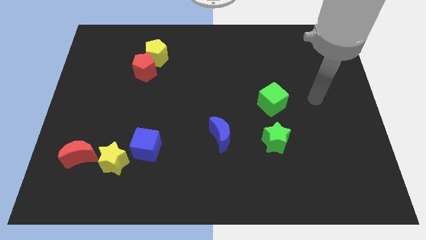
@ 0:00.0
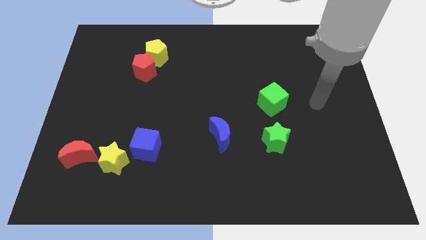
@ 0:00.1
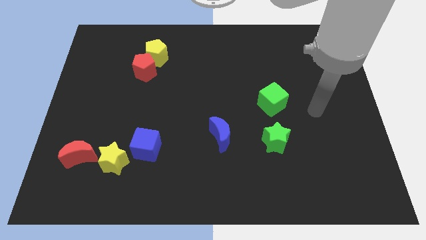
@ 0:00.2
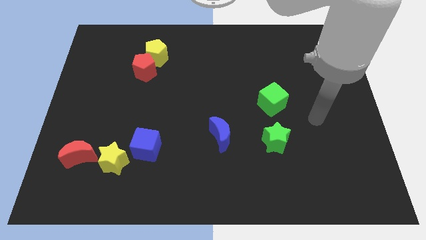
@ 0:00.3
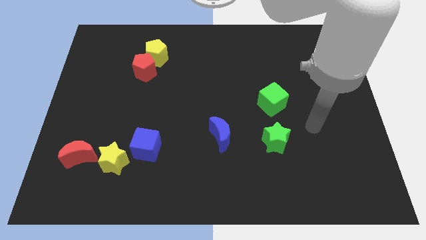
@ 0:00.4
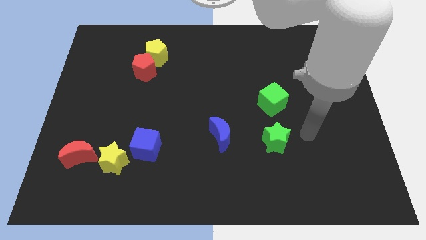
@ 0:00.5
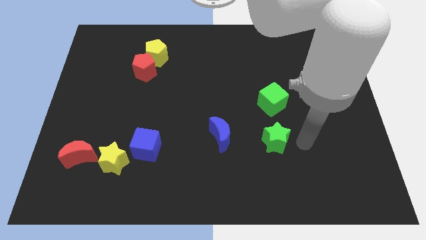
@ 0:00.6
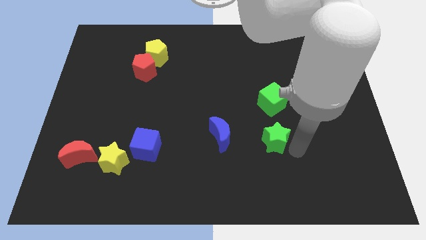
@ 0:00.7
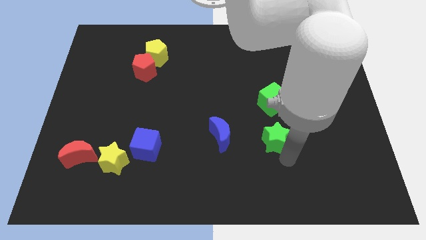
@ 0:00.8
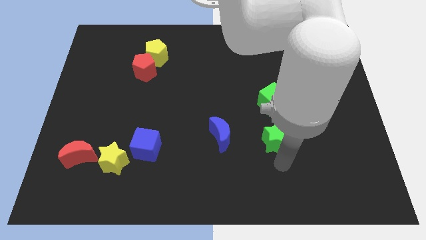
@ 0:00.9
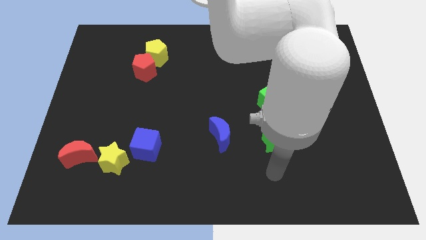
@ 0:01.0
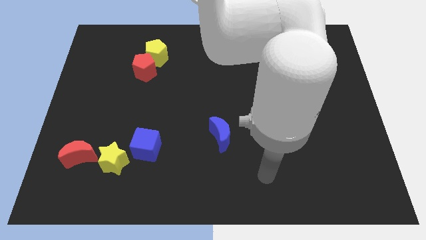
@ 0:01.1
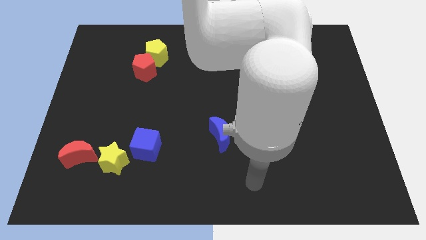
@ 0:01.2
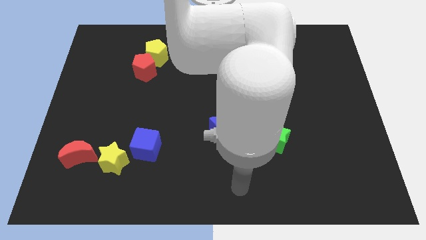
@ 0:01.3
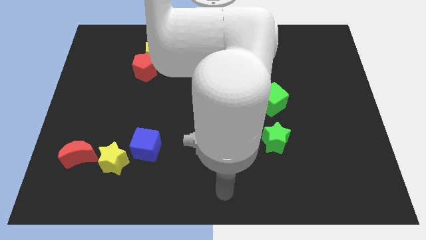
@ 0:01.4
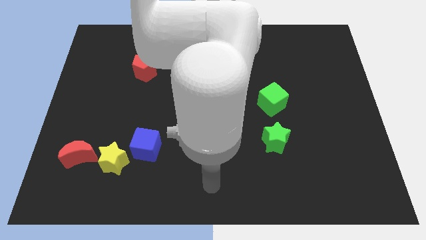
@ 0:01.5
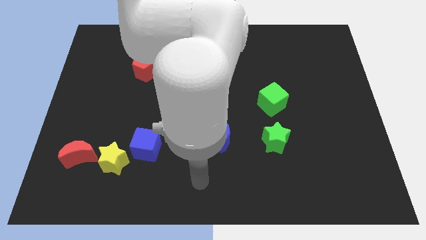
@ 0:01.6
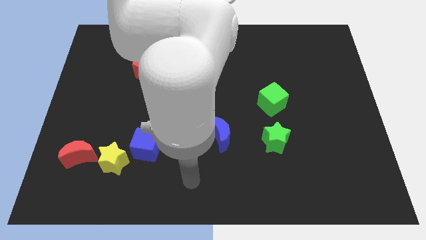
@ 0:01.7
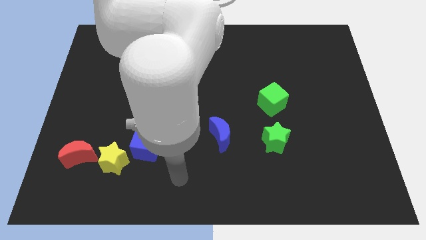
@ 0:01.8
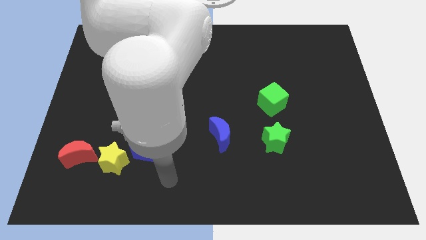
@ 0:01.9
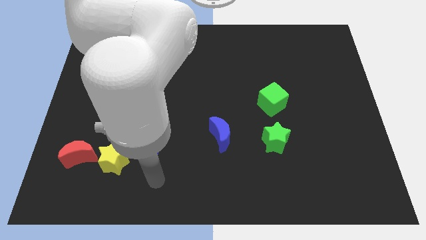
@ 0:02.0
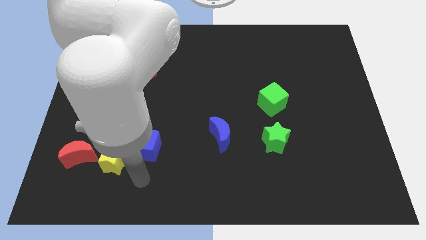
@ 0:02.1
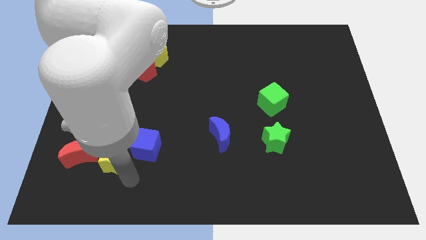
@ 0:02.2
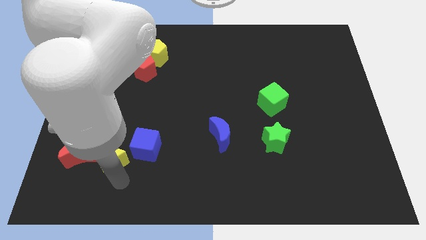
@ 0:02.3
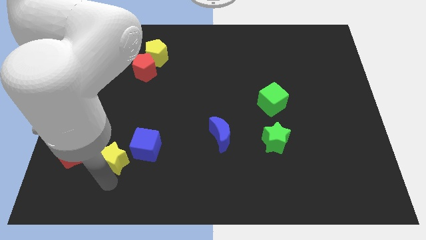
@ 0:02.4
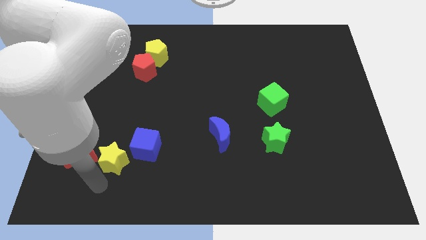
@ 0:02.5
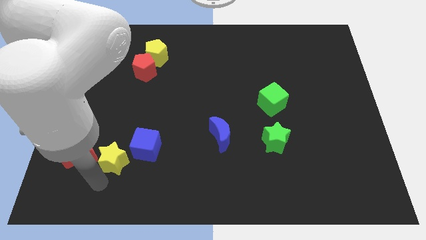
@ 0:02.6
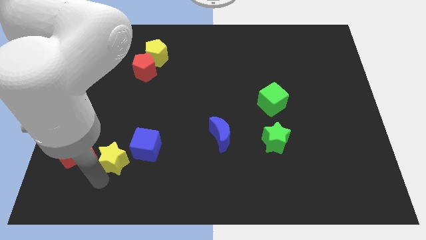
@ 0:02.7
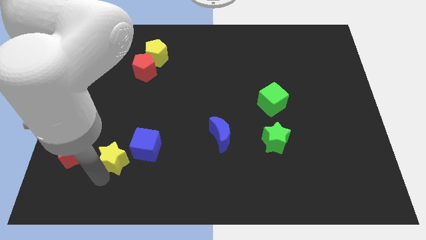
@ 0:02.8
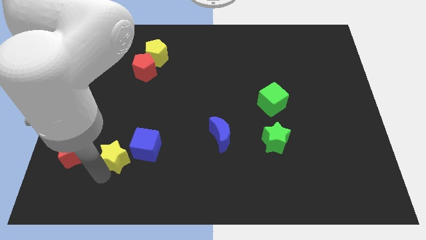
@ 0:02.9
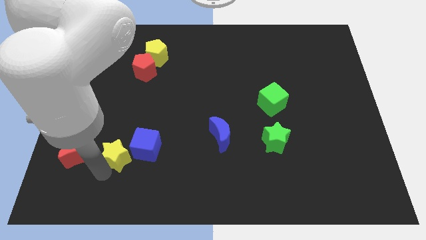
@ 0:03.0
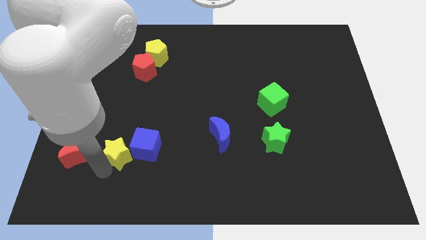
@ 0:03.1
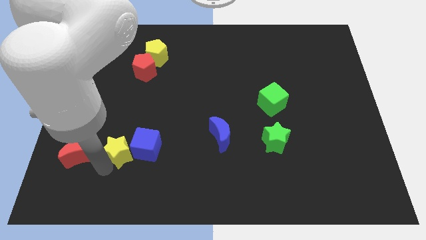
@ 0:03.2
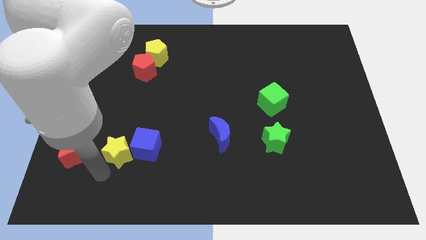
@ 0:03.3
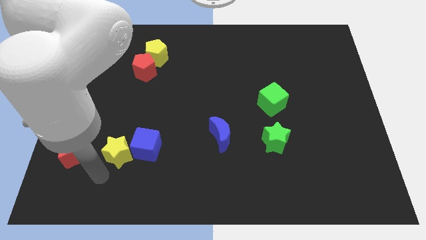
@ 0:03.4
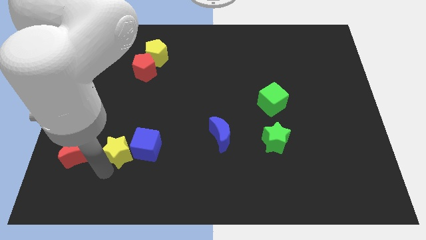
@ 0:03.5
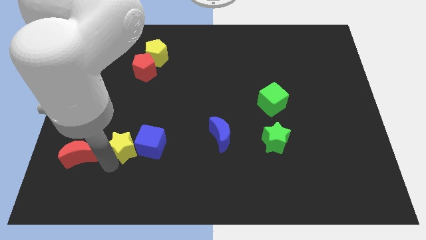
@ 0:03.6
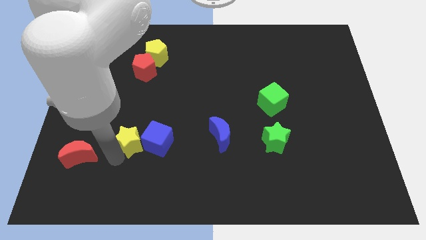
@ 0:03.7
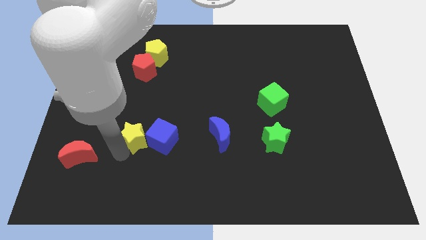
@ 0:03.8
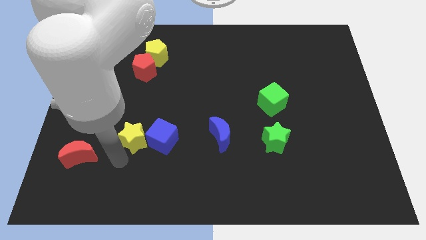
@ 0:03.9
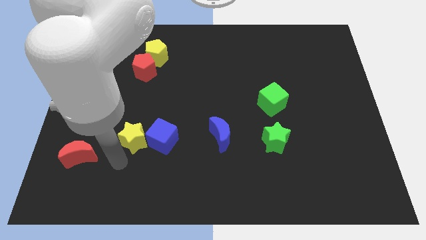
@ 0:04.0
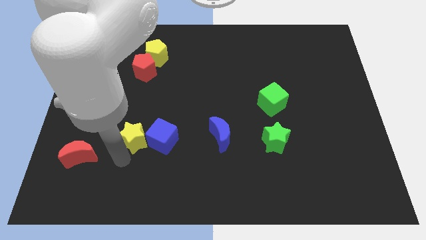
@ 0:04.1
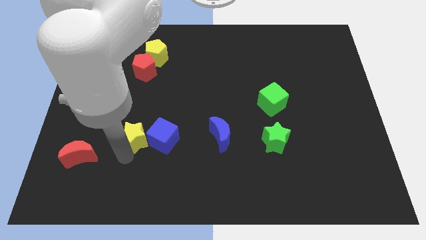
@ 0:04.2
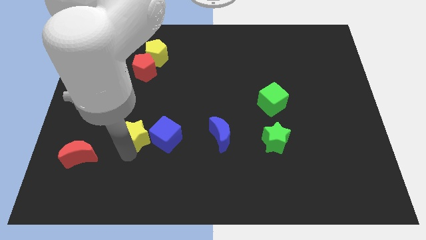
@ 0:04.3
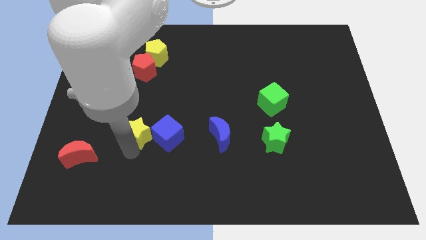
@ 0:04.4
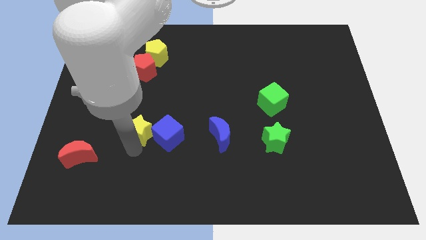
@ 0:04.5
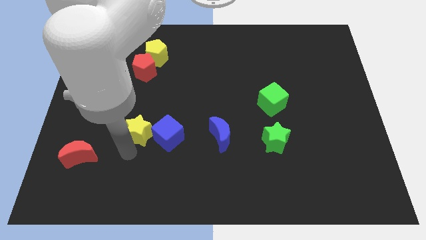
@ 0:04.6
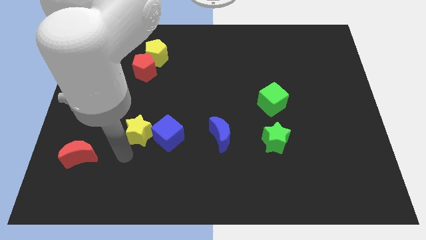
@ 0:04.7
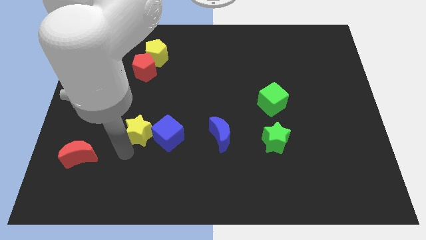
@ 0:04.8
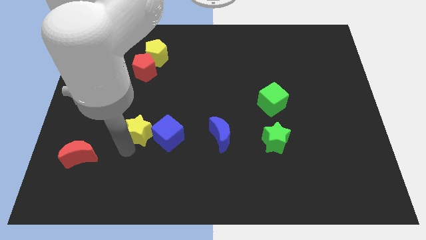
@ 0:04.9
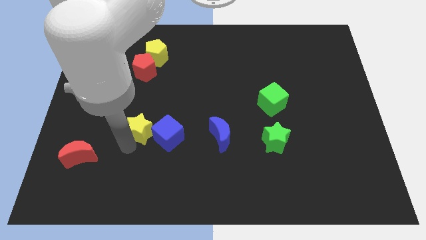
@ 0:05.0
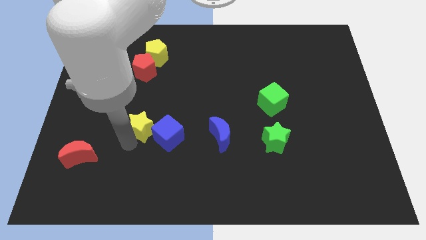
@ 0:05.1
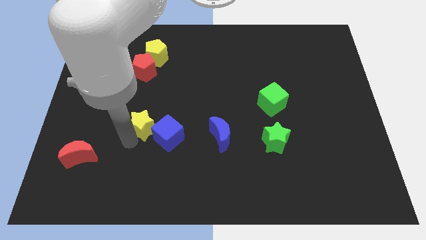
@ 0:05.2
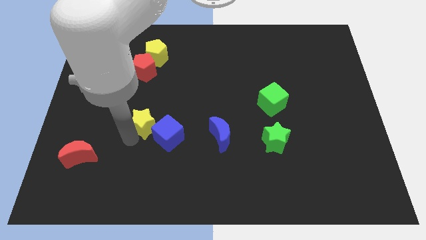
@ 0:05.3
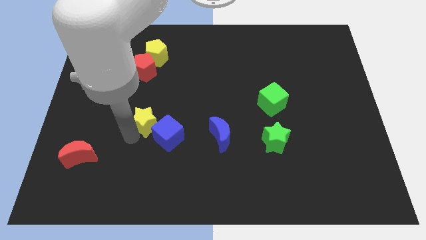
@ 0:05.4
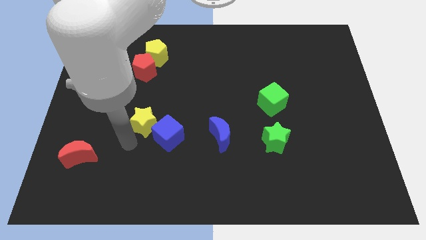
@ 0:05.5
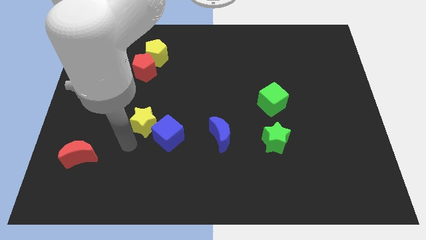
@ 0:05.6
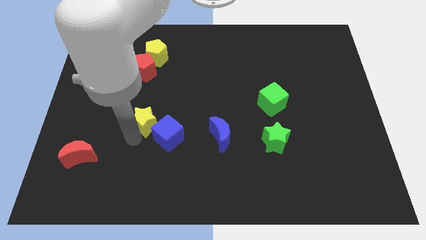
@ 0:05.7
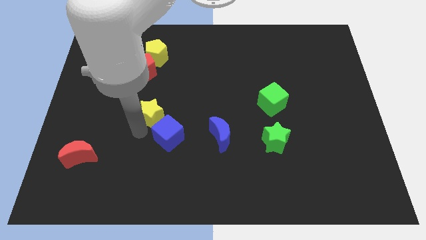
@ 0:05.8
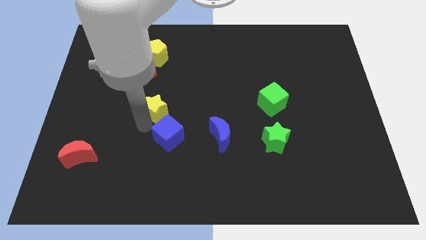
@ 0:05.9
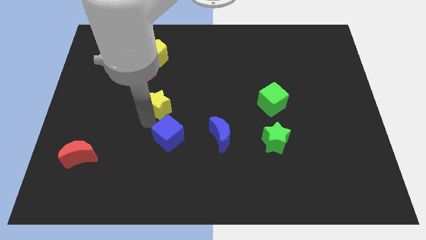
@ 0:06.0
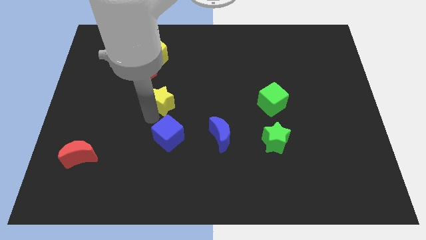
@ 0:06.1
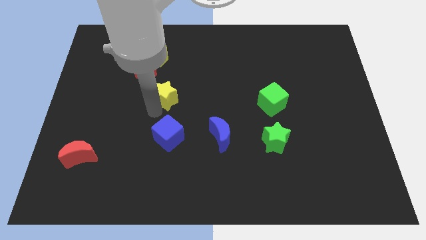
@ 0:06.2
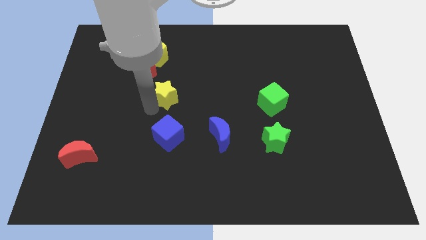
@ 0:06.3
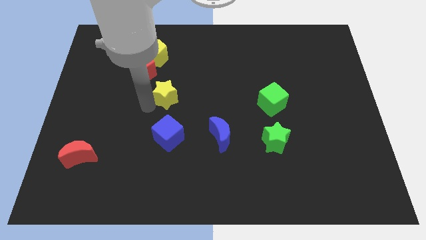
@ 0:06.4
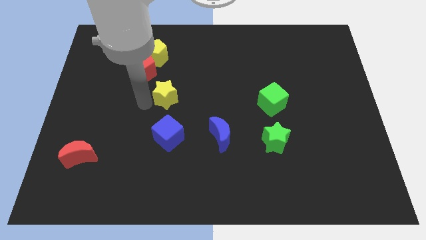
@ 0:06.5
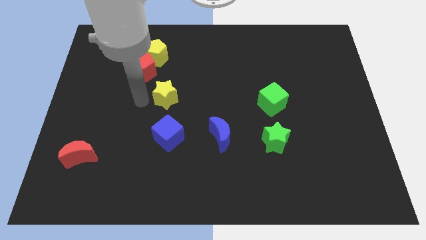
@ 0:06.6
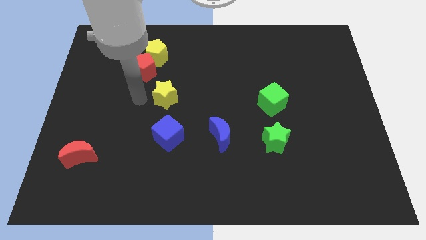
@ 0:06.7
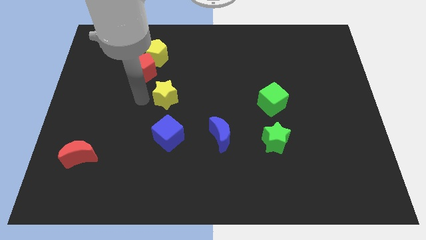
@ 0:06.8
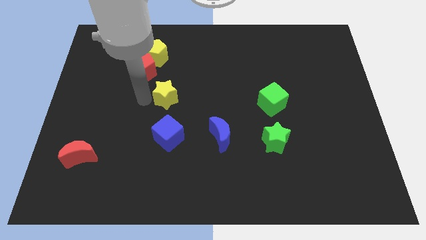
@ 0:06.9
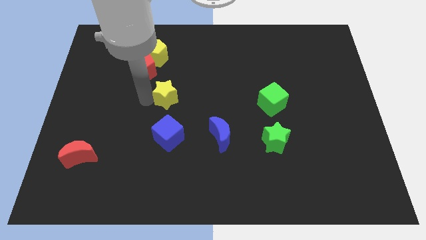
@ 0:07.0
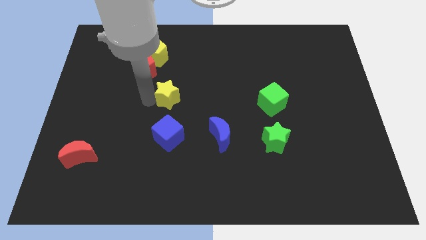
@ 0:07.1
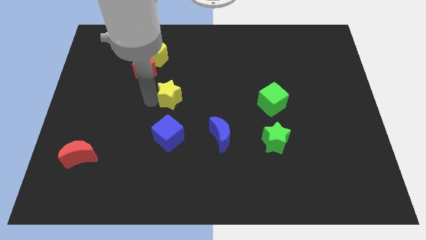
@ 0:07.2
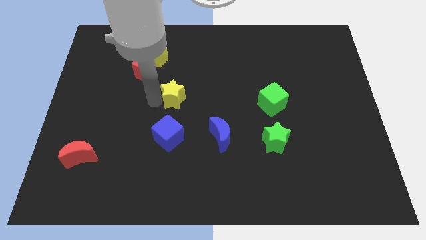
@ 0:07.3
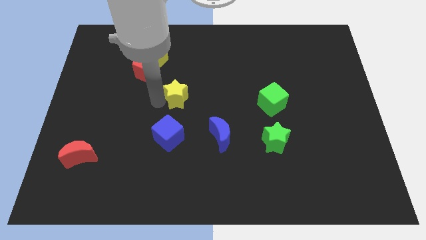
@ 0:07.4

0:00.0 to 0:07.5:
push the yellow star upwards and then to the right

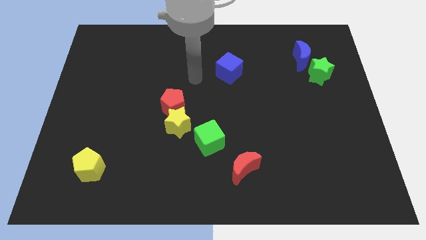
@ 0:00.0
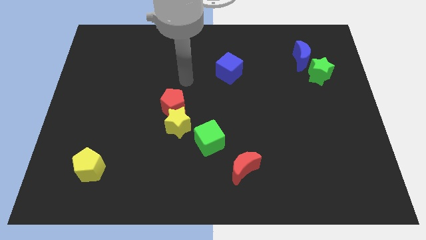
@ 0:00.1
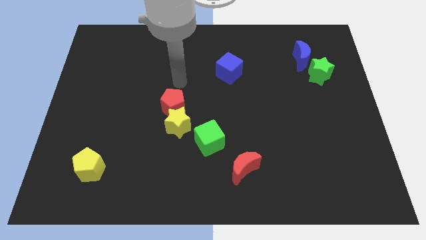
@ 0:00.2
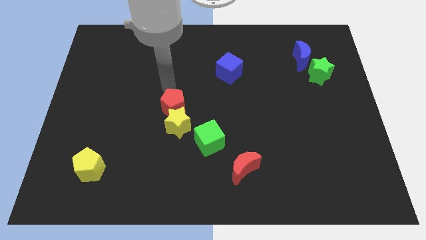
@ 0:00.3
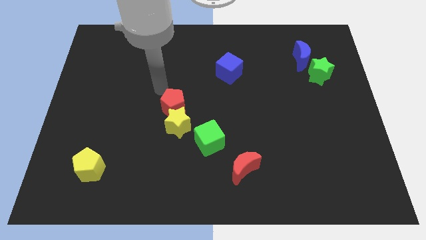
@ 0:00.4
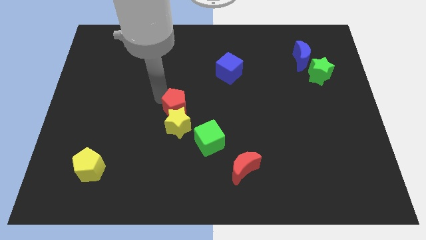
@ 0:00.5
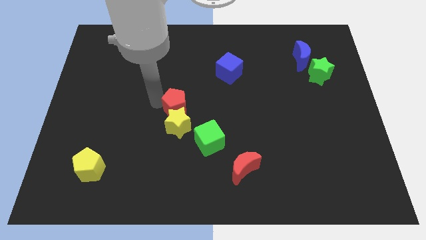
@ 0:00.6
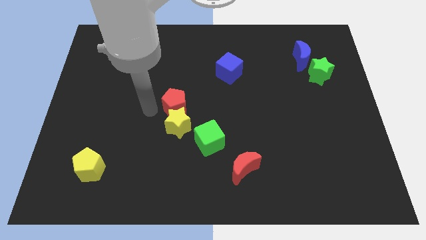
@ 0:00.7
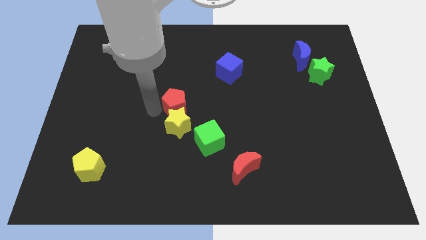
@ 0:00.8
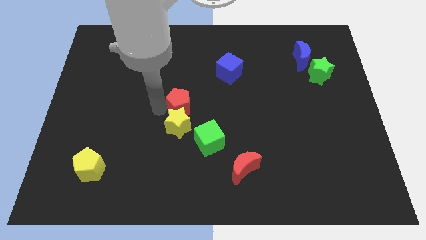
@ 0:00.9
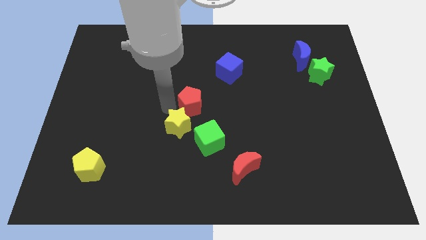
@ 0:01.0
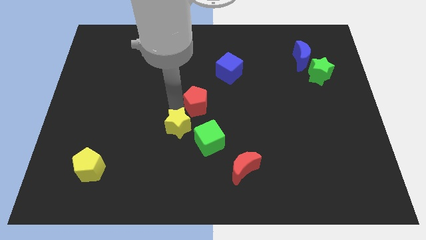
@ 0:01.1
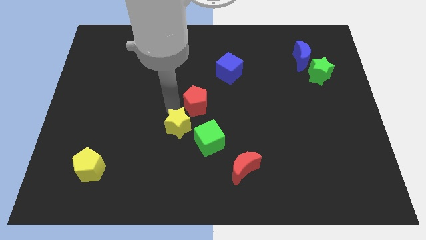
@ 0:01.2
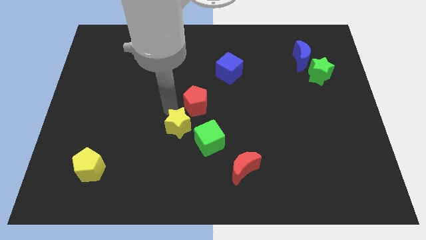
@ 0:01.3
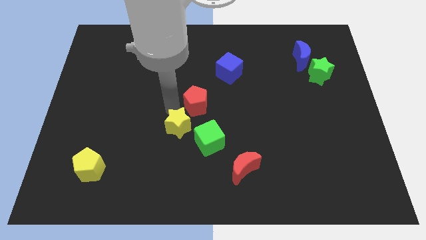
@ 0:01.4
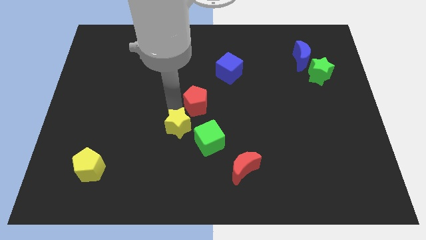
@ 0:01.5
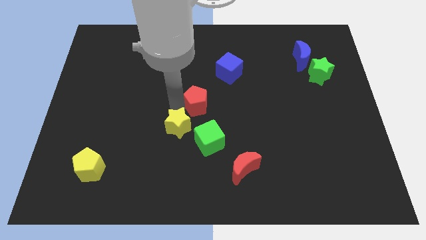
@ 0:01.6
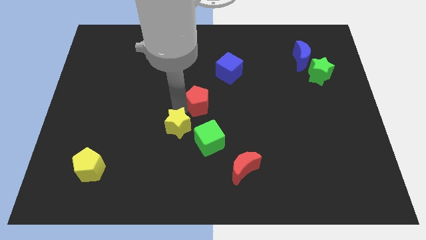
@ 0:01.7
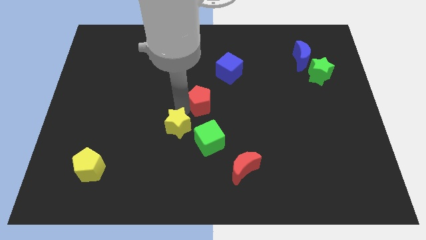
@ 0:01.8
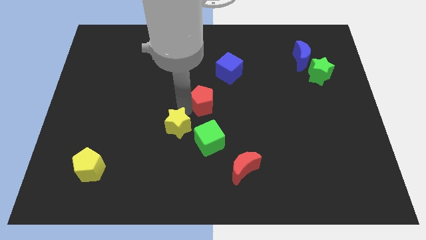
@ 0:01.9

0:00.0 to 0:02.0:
move the red pentagon a bit right
